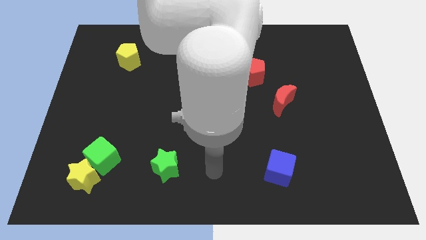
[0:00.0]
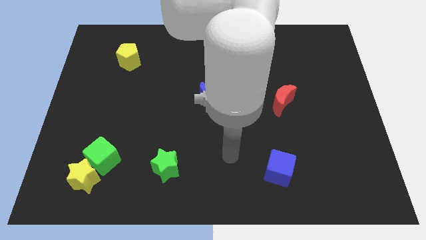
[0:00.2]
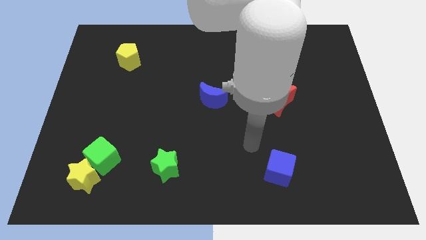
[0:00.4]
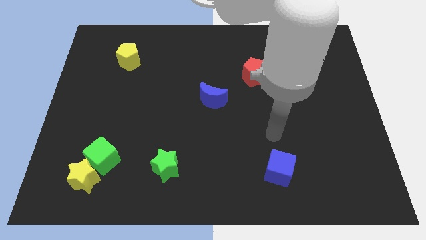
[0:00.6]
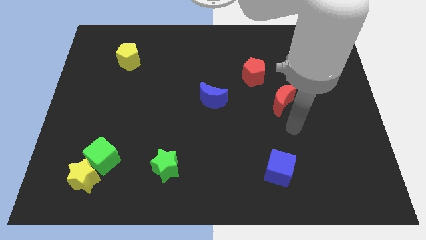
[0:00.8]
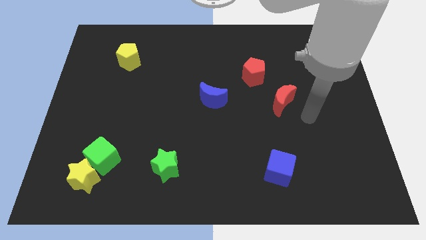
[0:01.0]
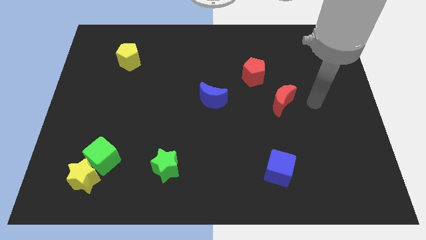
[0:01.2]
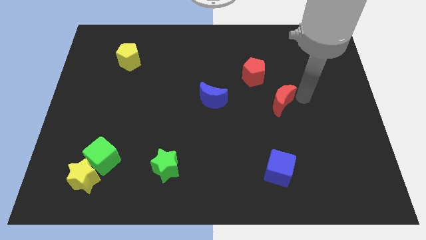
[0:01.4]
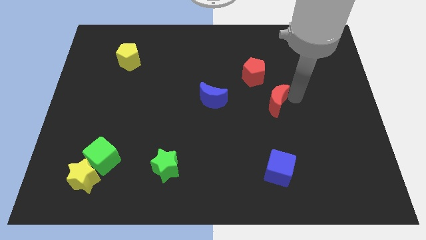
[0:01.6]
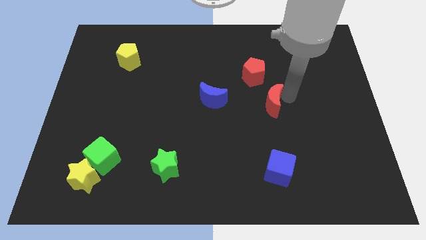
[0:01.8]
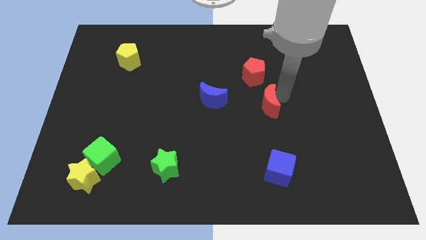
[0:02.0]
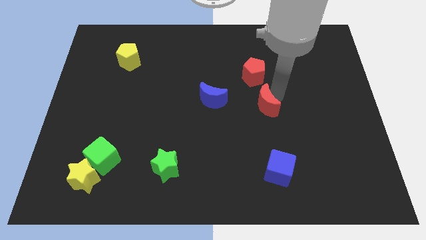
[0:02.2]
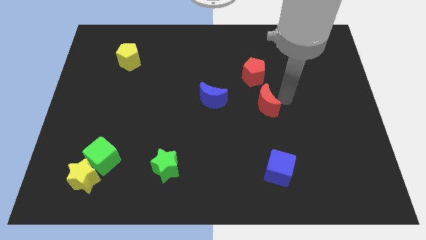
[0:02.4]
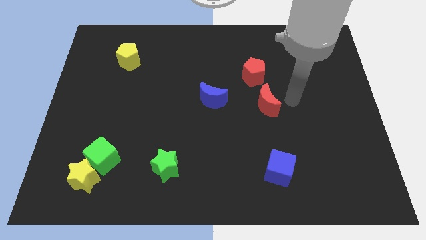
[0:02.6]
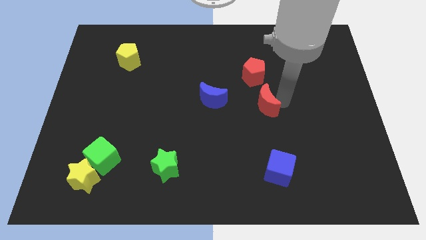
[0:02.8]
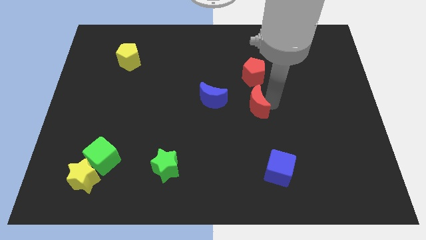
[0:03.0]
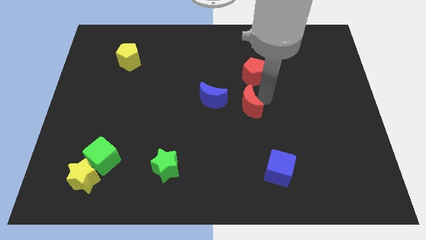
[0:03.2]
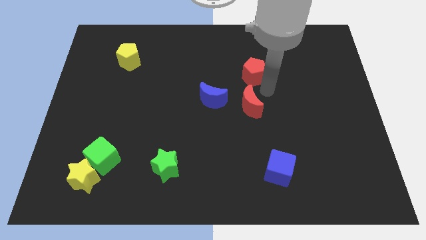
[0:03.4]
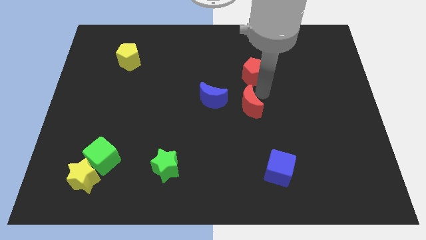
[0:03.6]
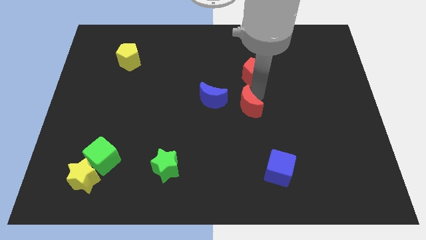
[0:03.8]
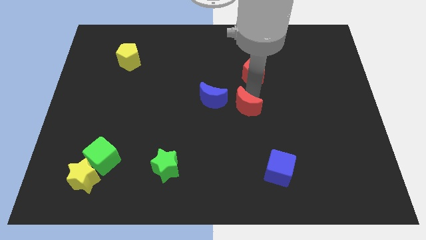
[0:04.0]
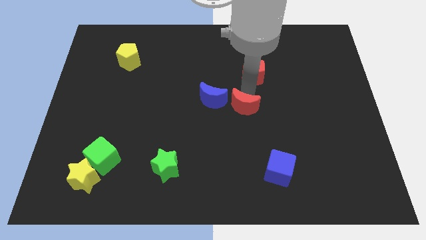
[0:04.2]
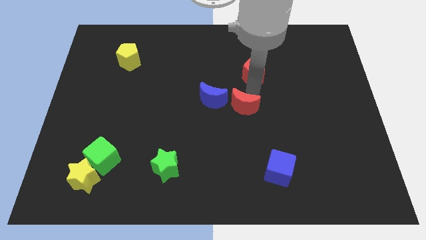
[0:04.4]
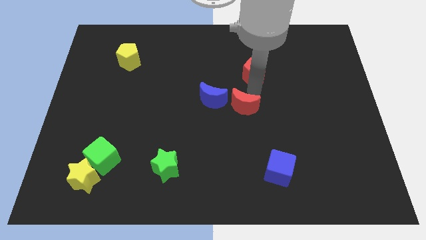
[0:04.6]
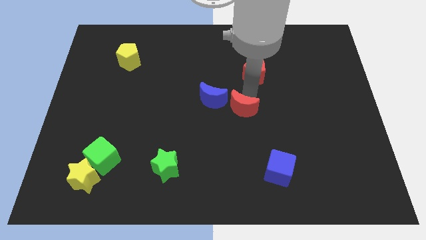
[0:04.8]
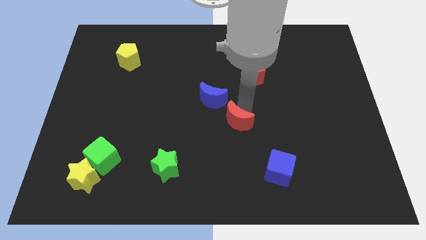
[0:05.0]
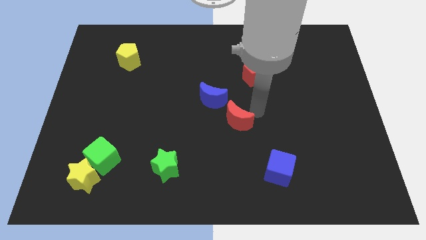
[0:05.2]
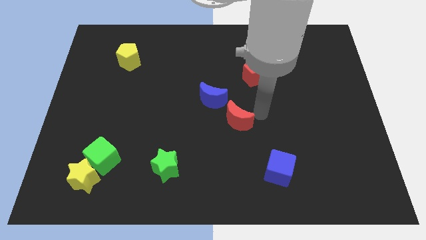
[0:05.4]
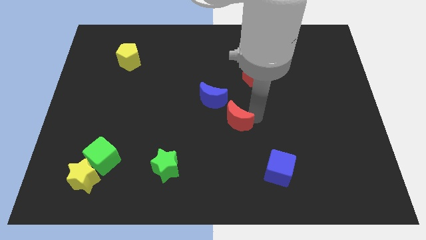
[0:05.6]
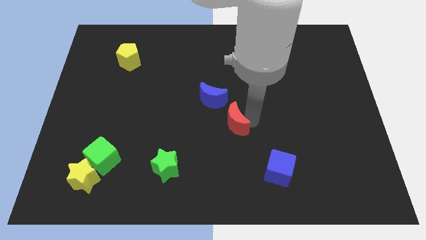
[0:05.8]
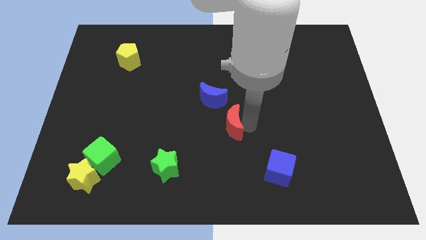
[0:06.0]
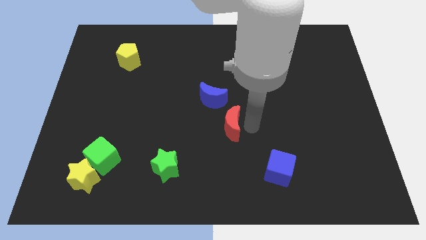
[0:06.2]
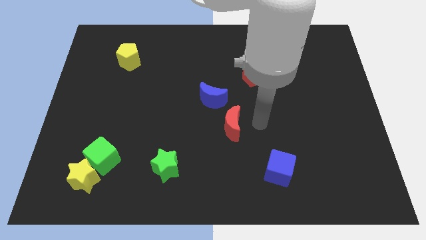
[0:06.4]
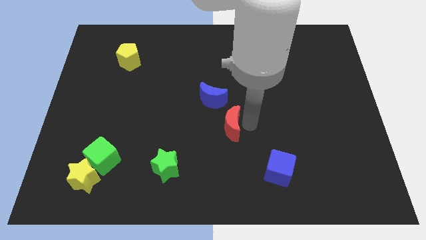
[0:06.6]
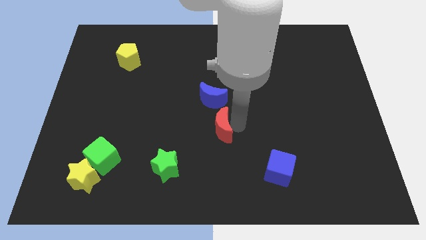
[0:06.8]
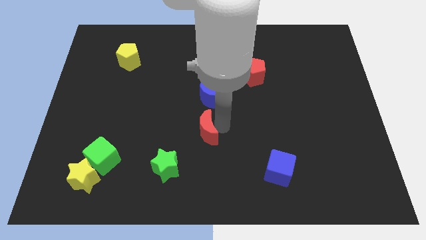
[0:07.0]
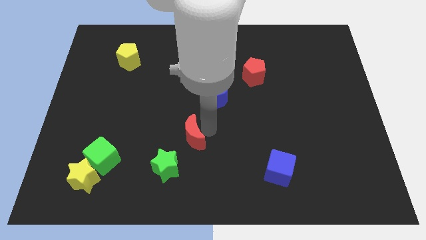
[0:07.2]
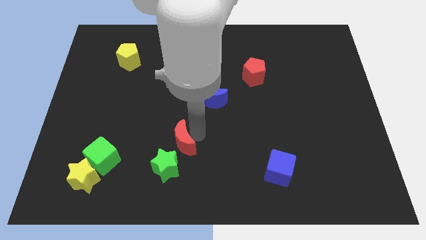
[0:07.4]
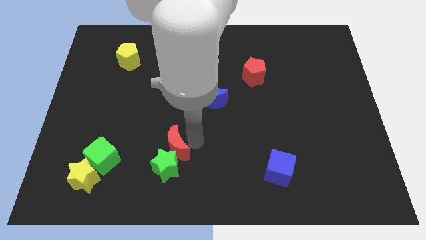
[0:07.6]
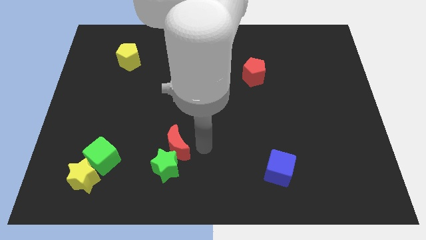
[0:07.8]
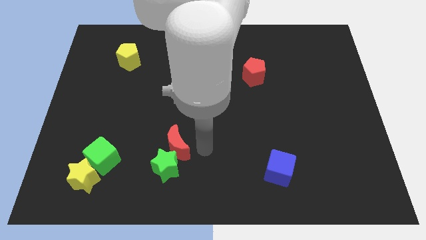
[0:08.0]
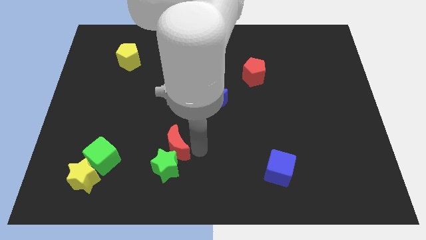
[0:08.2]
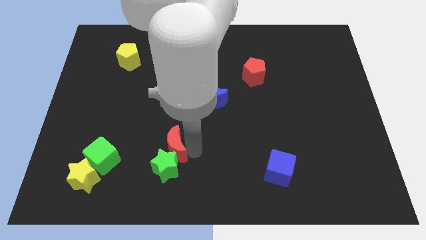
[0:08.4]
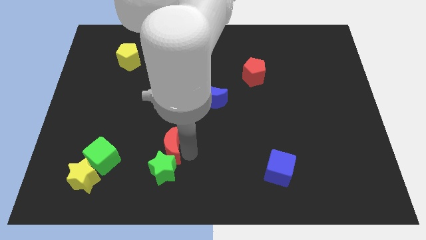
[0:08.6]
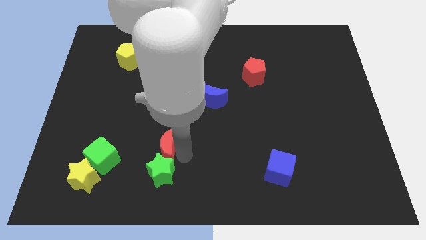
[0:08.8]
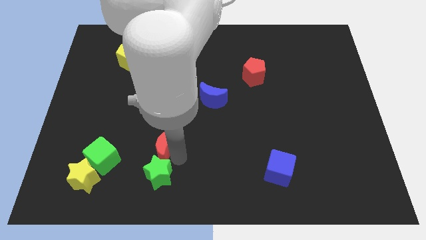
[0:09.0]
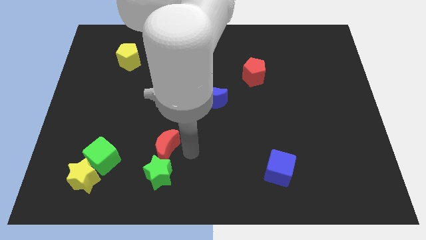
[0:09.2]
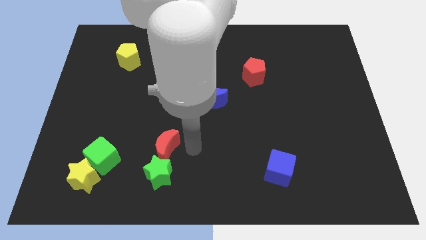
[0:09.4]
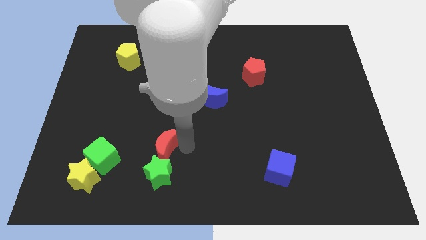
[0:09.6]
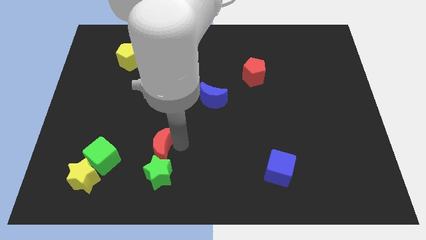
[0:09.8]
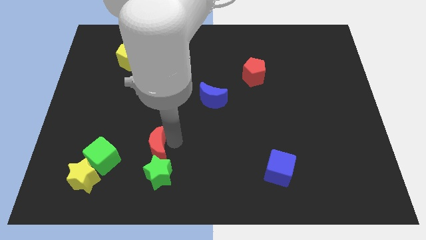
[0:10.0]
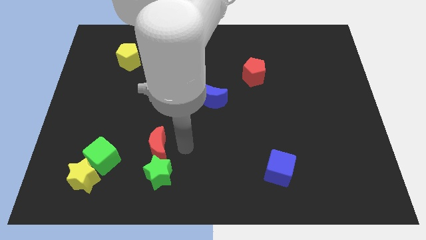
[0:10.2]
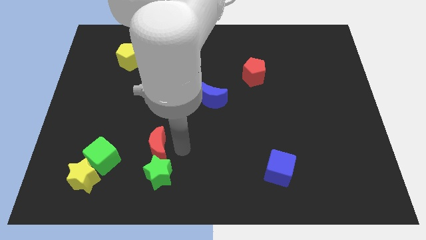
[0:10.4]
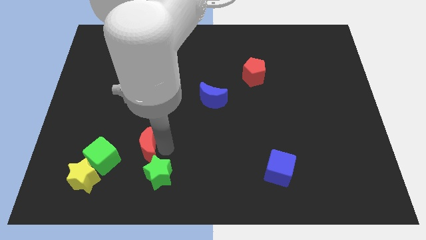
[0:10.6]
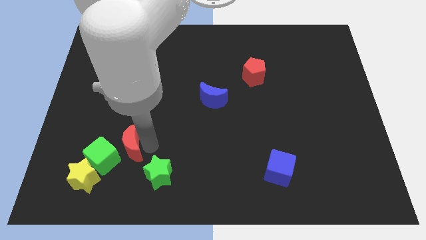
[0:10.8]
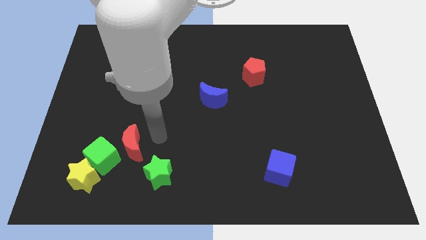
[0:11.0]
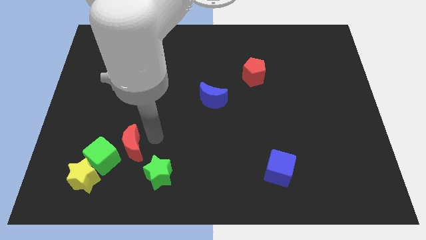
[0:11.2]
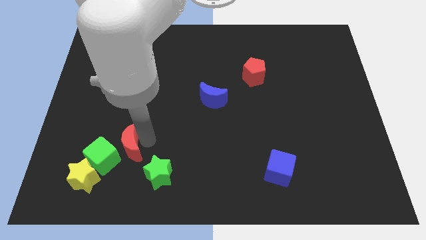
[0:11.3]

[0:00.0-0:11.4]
slide the red moon to the green cube

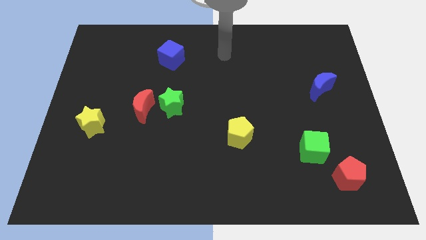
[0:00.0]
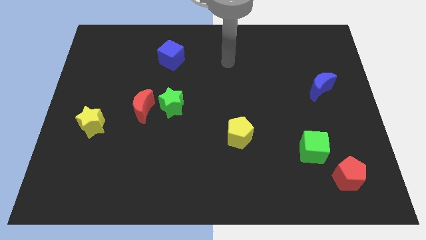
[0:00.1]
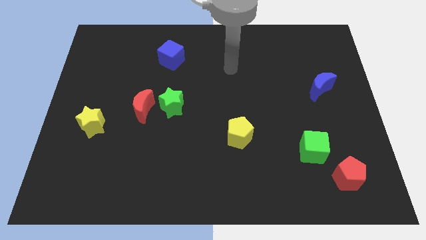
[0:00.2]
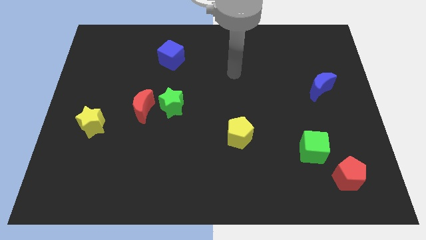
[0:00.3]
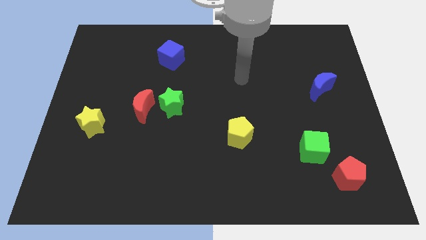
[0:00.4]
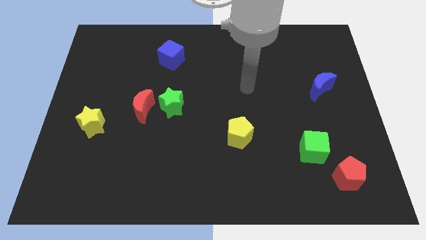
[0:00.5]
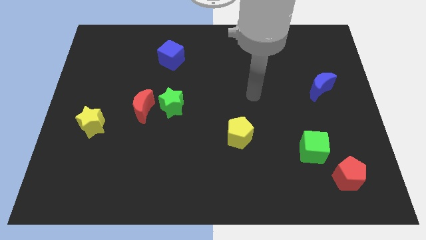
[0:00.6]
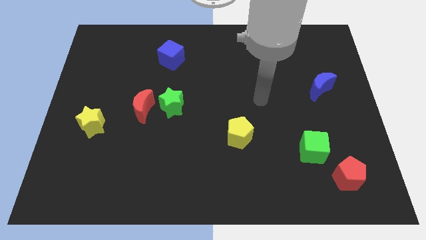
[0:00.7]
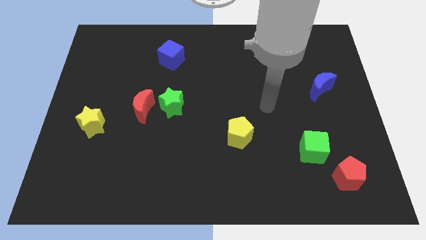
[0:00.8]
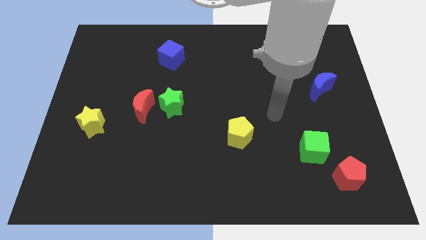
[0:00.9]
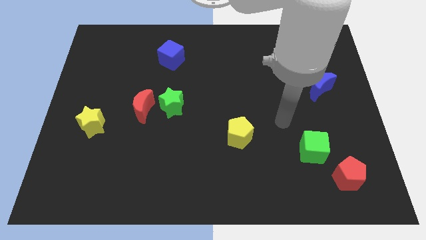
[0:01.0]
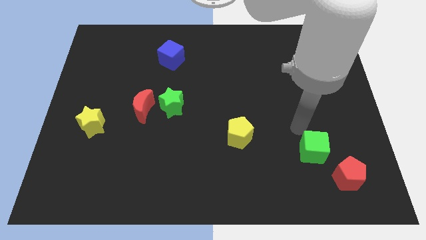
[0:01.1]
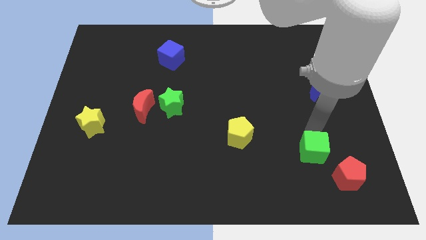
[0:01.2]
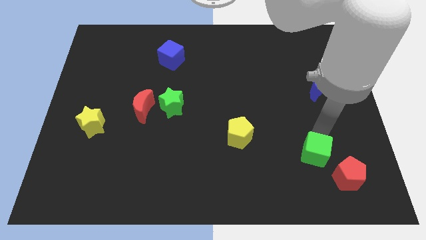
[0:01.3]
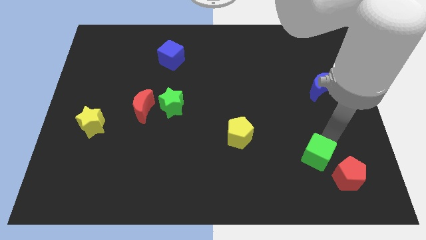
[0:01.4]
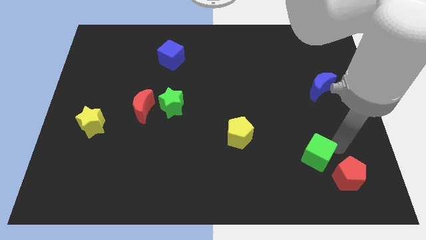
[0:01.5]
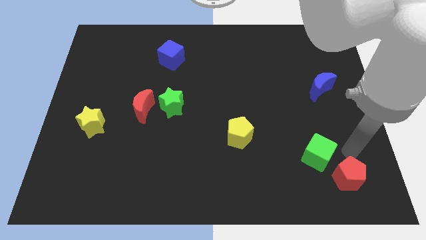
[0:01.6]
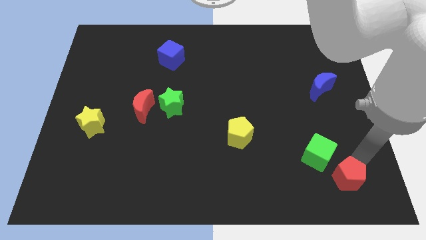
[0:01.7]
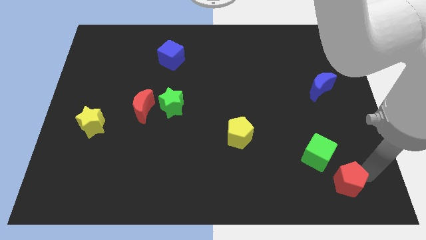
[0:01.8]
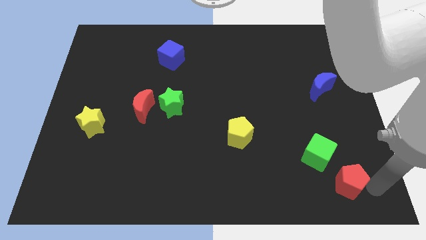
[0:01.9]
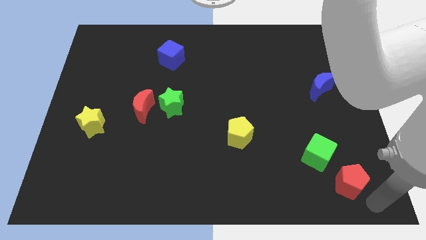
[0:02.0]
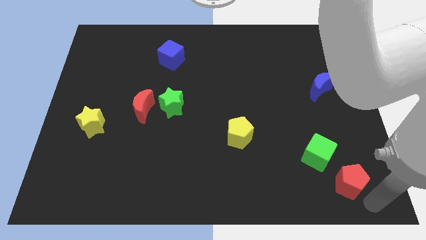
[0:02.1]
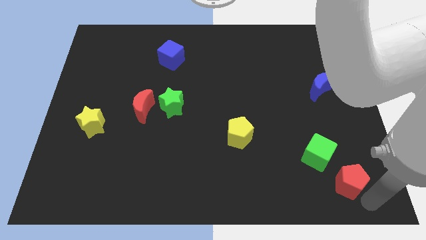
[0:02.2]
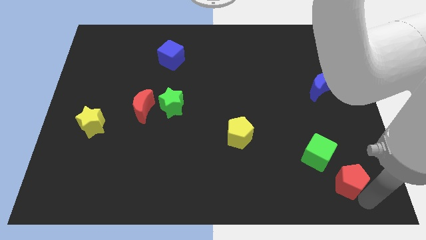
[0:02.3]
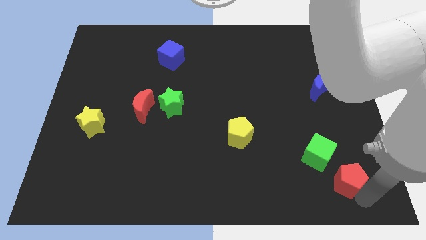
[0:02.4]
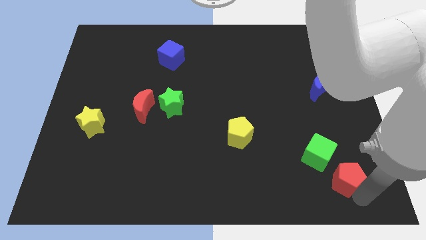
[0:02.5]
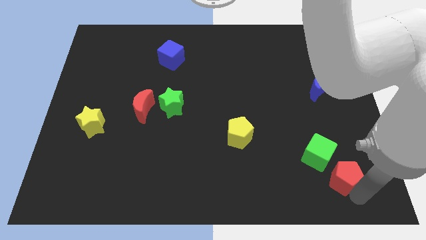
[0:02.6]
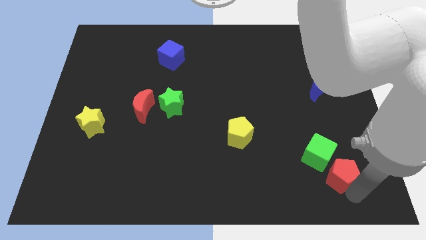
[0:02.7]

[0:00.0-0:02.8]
slide the red pentagon next to the green cube
